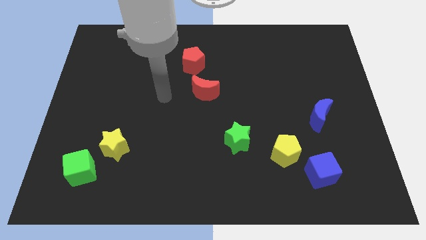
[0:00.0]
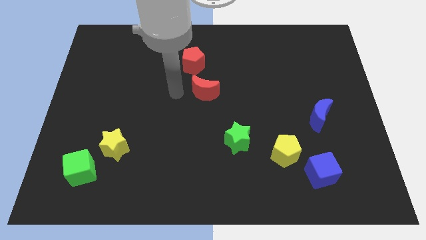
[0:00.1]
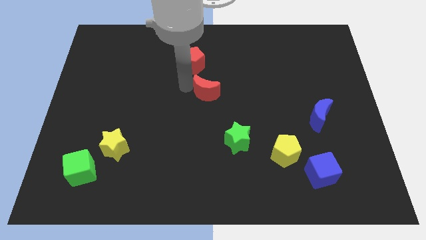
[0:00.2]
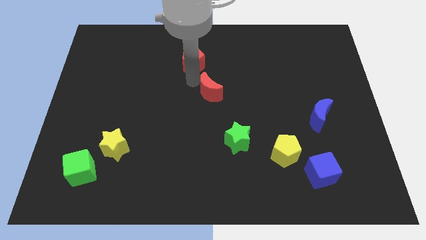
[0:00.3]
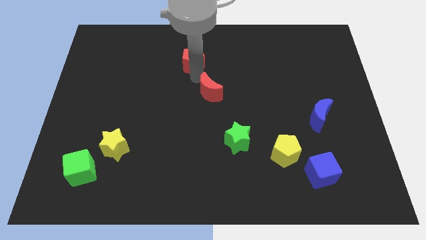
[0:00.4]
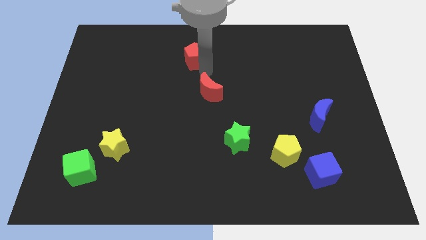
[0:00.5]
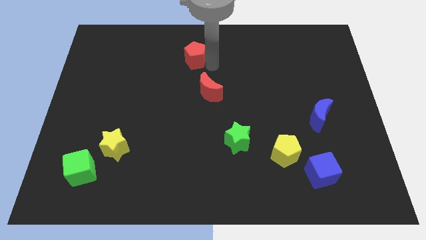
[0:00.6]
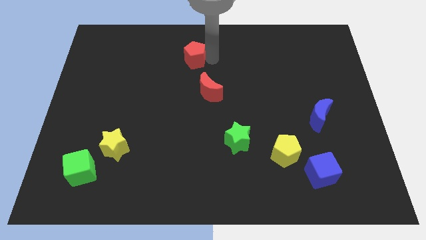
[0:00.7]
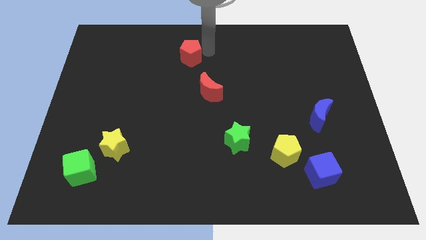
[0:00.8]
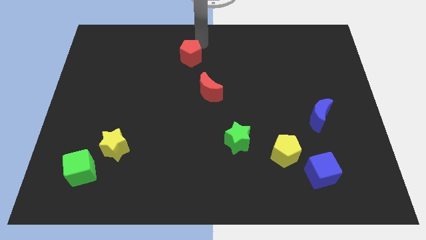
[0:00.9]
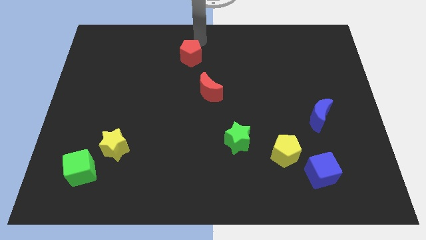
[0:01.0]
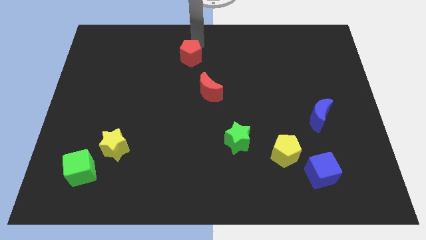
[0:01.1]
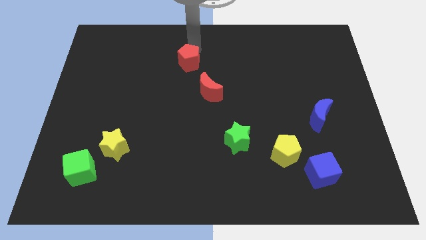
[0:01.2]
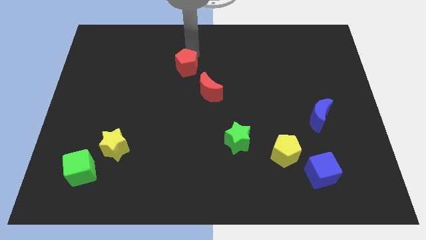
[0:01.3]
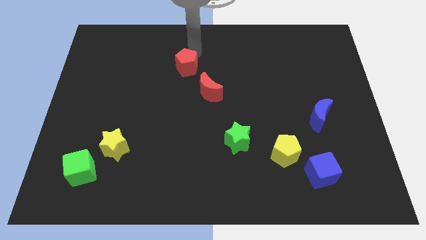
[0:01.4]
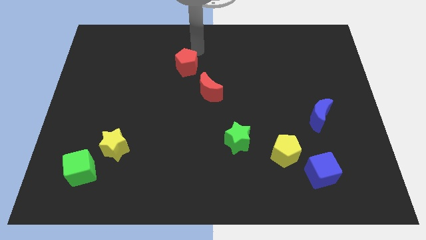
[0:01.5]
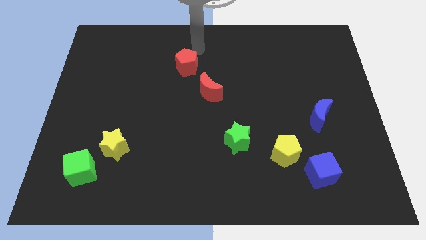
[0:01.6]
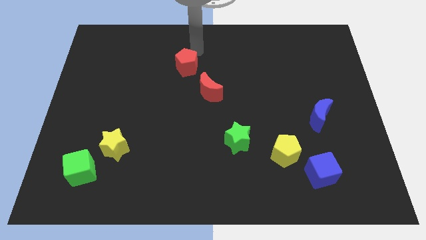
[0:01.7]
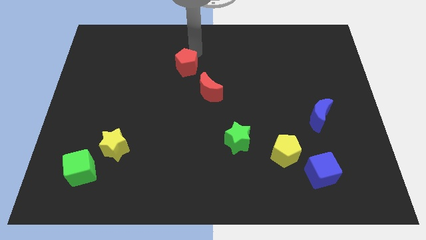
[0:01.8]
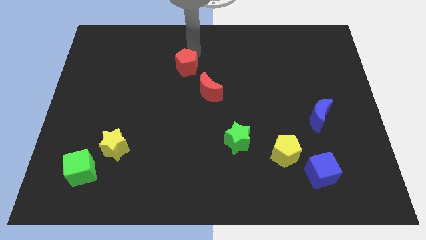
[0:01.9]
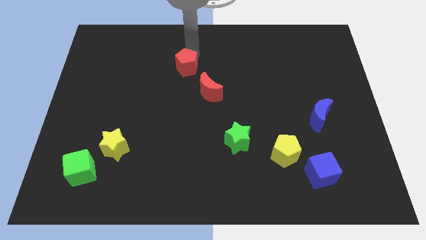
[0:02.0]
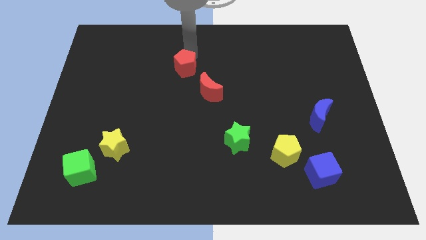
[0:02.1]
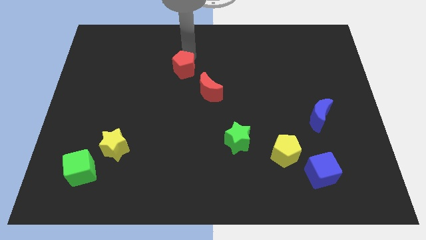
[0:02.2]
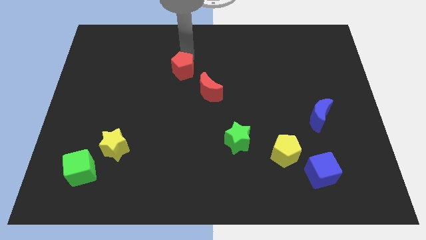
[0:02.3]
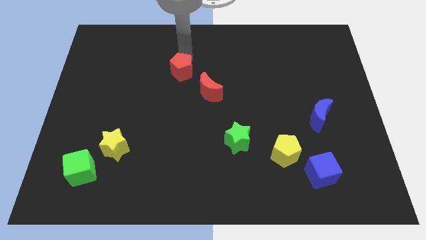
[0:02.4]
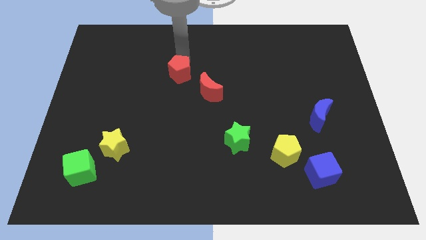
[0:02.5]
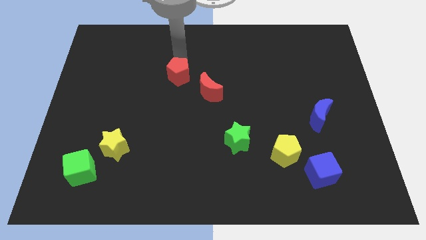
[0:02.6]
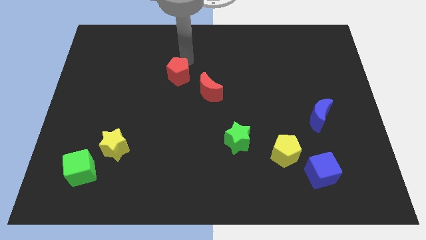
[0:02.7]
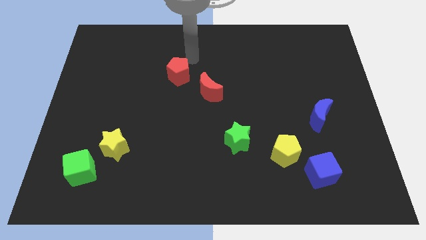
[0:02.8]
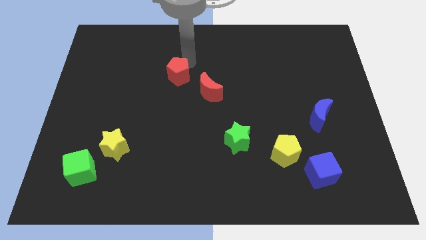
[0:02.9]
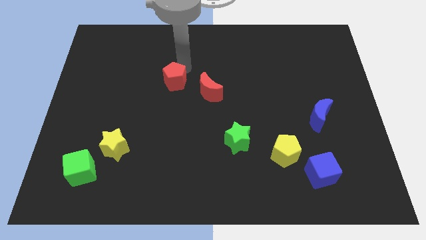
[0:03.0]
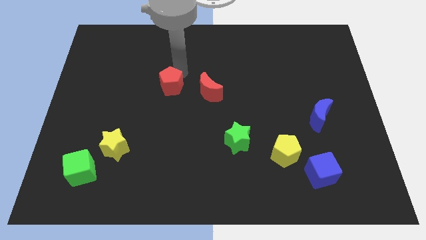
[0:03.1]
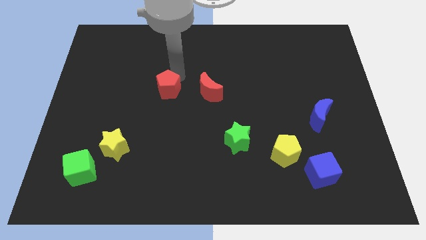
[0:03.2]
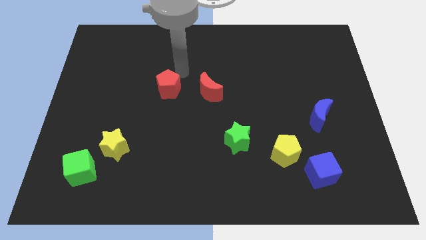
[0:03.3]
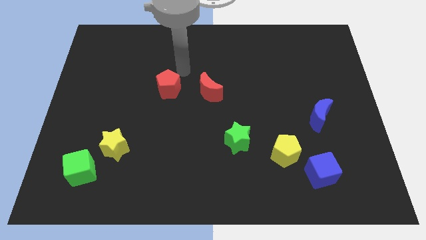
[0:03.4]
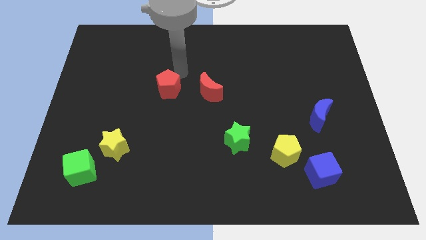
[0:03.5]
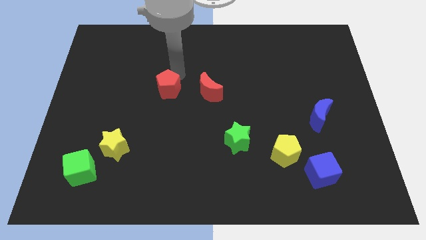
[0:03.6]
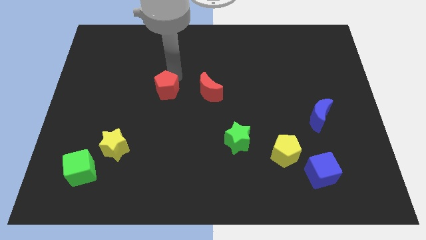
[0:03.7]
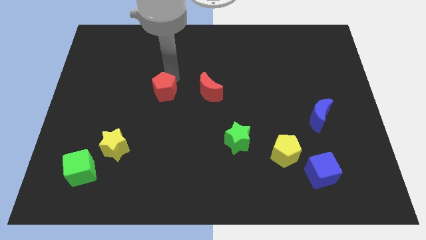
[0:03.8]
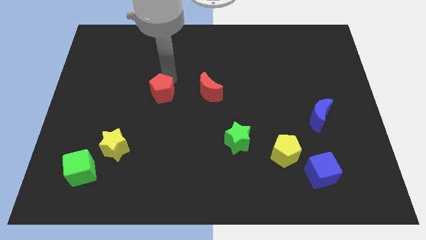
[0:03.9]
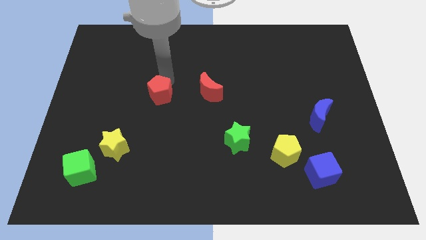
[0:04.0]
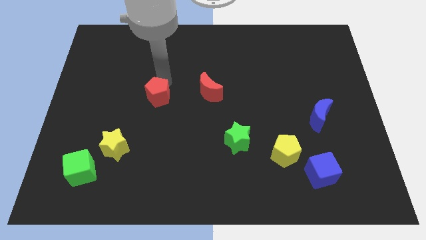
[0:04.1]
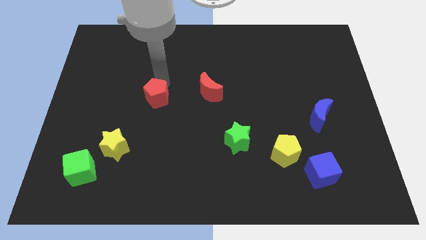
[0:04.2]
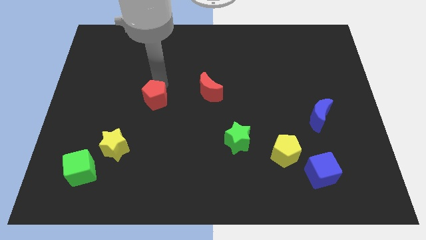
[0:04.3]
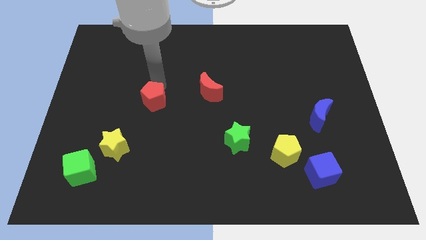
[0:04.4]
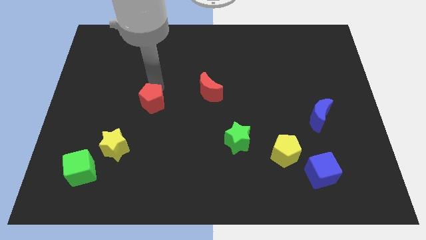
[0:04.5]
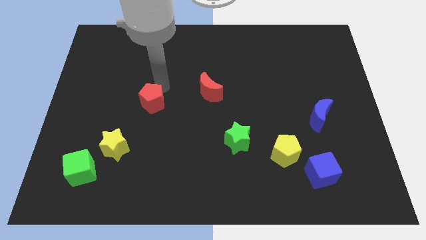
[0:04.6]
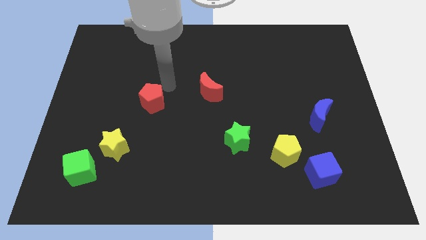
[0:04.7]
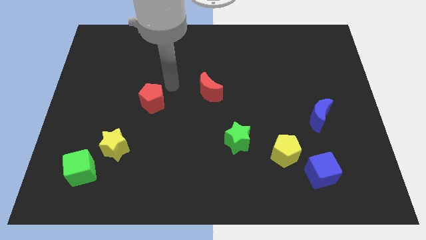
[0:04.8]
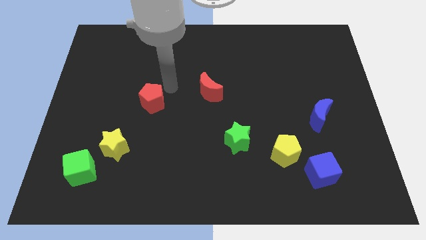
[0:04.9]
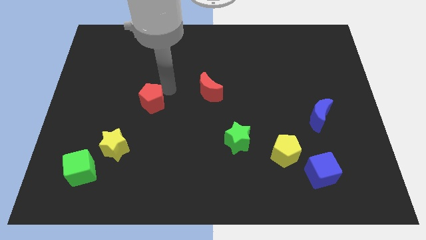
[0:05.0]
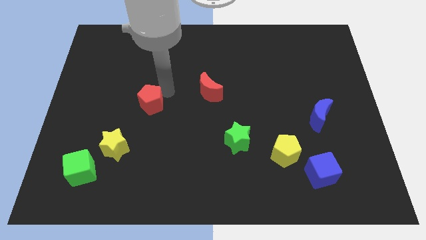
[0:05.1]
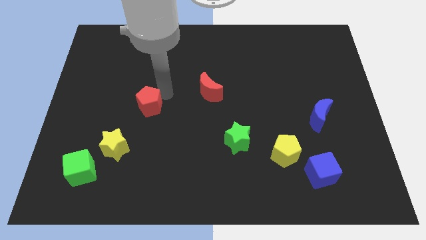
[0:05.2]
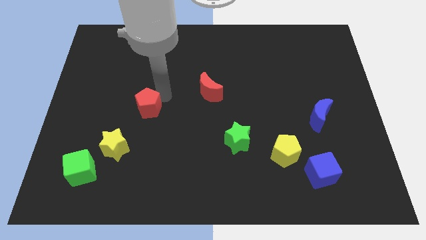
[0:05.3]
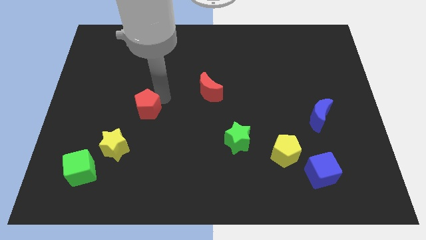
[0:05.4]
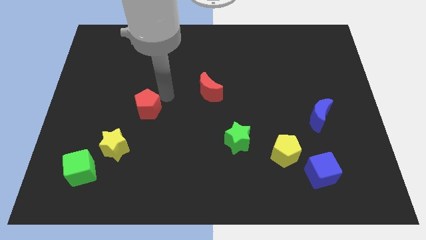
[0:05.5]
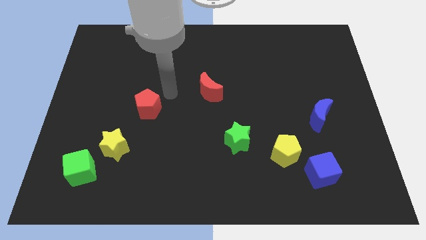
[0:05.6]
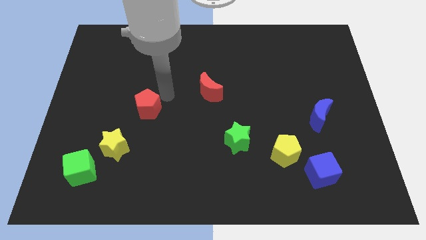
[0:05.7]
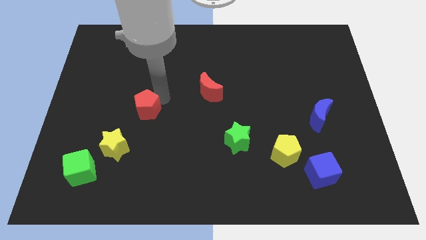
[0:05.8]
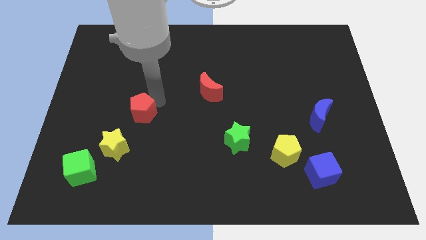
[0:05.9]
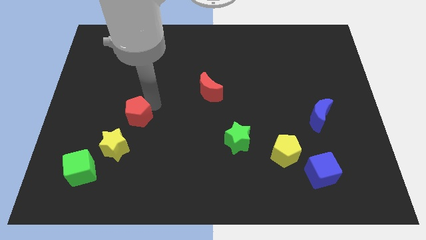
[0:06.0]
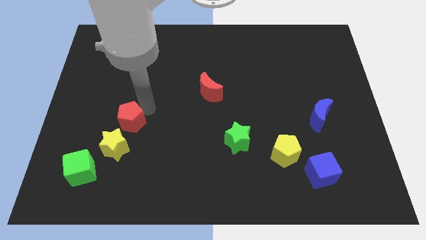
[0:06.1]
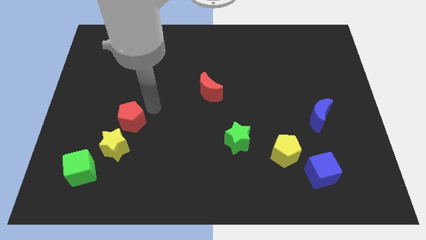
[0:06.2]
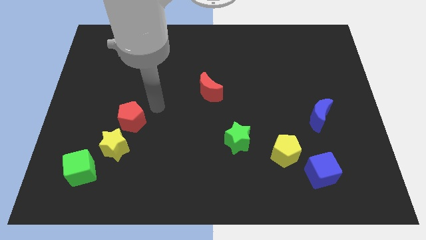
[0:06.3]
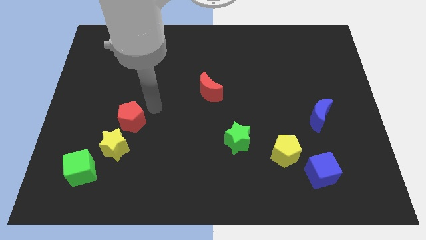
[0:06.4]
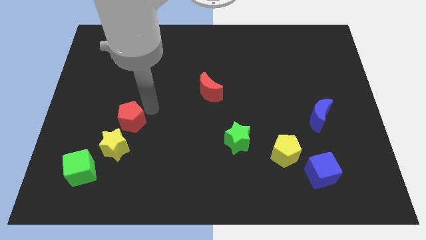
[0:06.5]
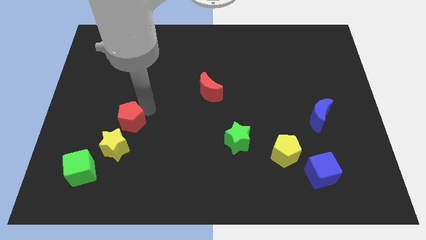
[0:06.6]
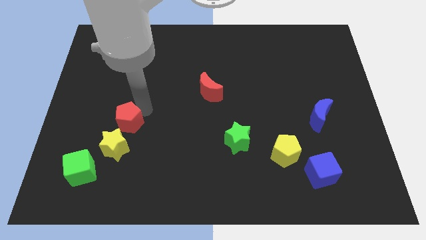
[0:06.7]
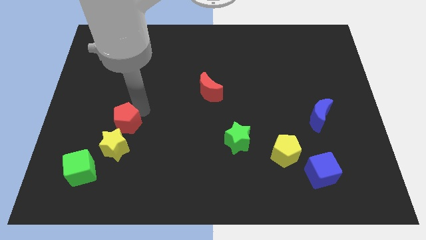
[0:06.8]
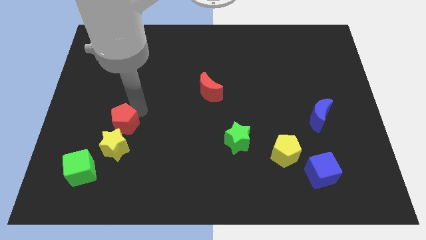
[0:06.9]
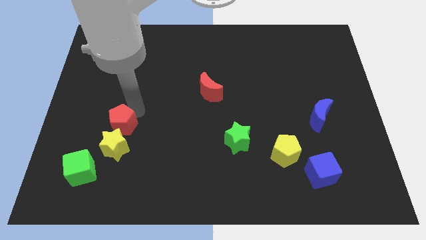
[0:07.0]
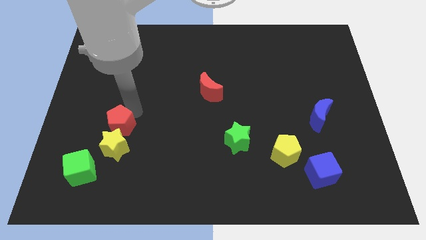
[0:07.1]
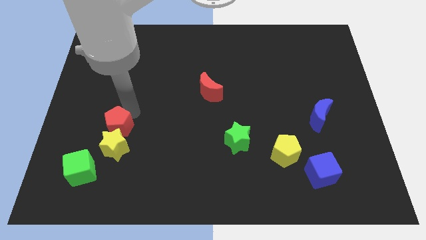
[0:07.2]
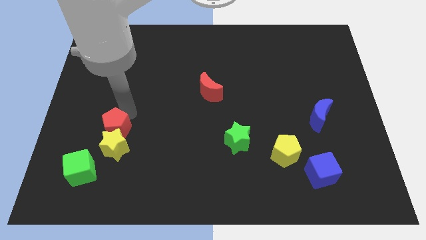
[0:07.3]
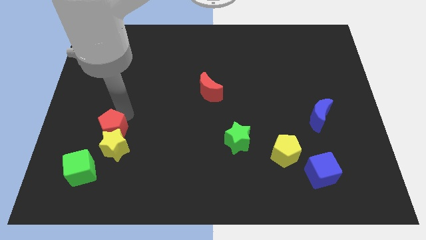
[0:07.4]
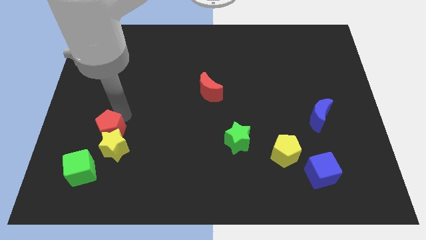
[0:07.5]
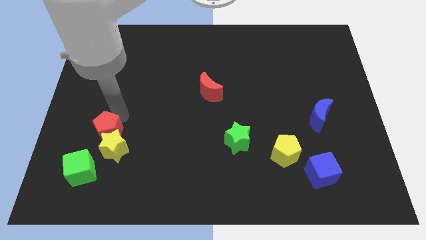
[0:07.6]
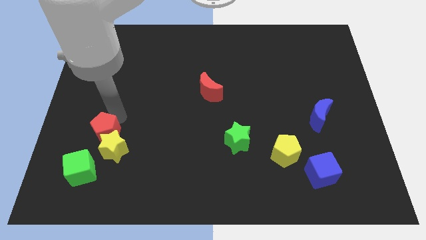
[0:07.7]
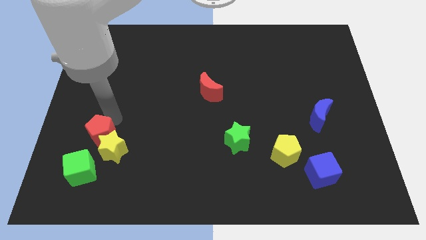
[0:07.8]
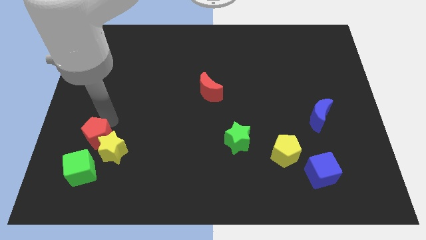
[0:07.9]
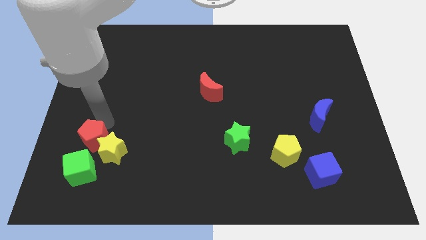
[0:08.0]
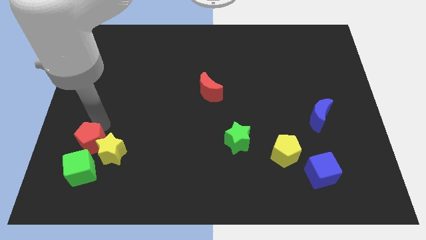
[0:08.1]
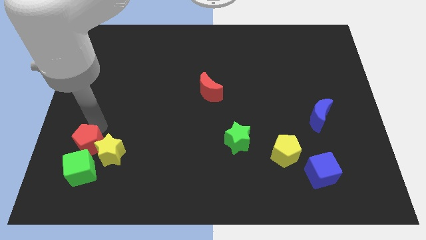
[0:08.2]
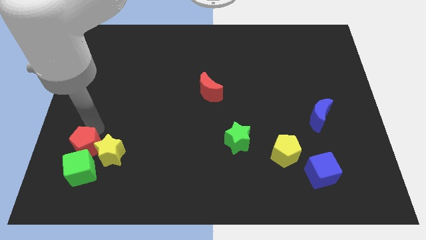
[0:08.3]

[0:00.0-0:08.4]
push the red pentagon towards the green cube
